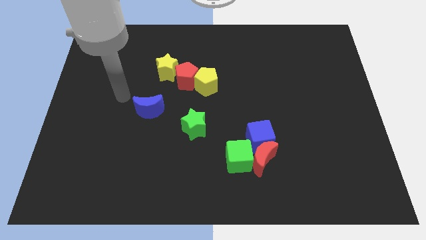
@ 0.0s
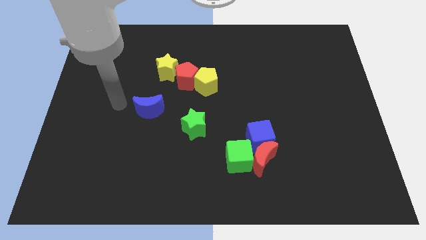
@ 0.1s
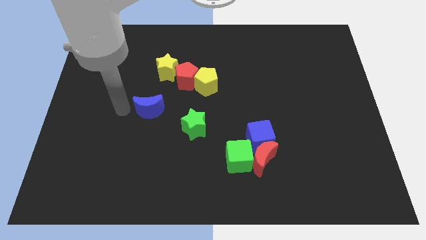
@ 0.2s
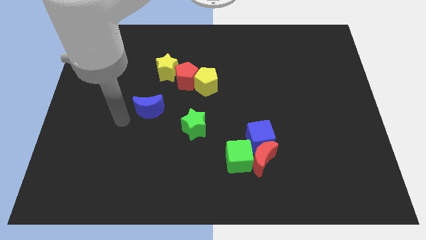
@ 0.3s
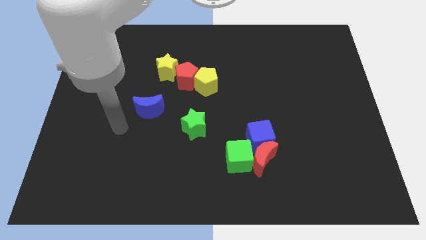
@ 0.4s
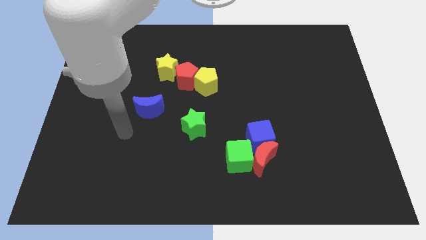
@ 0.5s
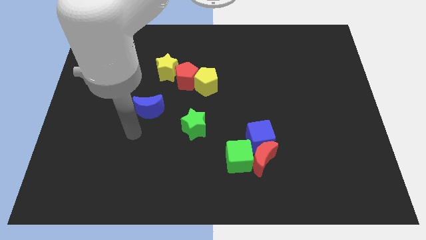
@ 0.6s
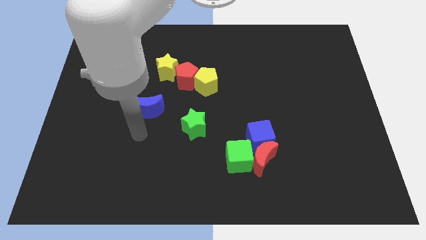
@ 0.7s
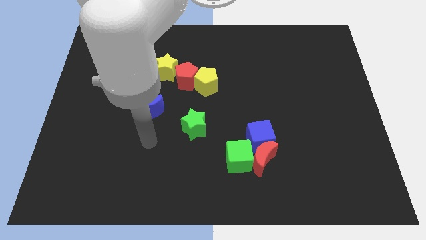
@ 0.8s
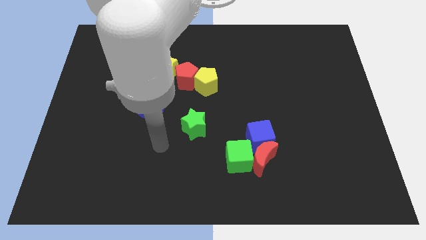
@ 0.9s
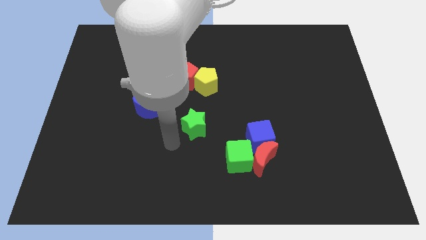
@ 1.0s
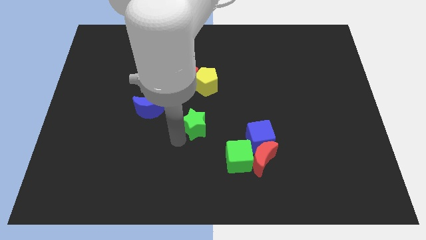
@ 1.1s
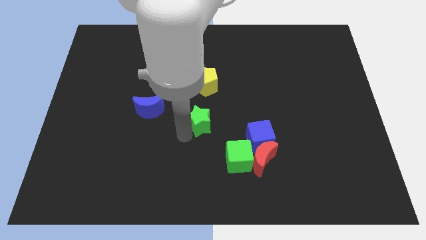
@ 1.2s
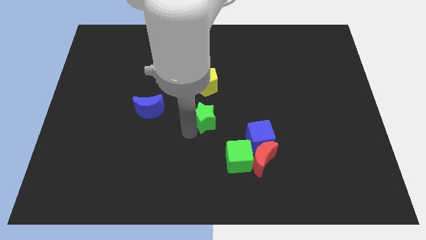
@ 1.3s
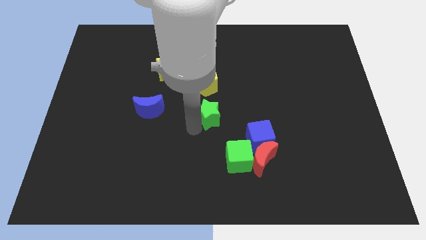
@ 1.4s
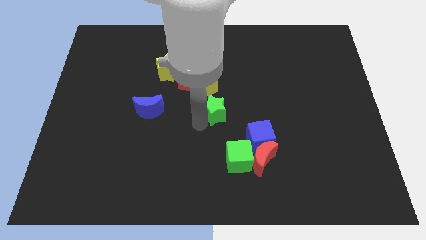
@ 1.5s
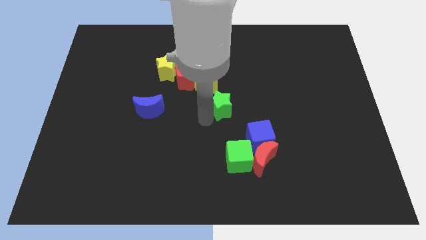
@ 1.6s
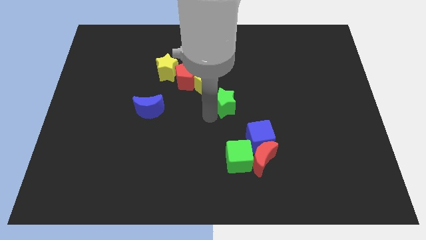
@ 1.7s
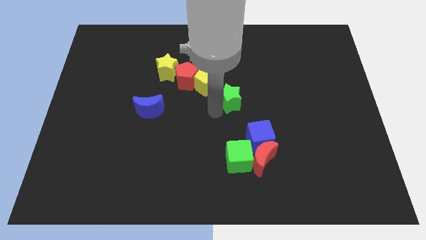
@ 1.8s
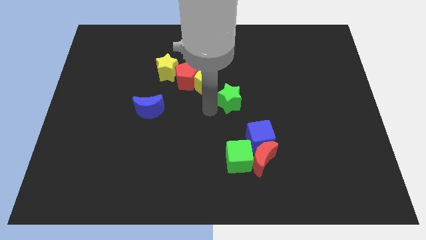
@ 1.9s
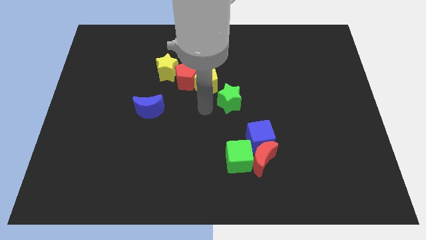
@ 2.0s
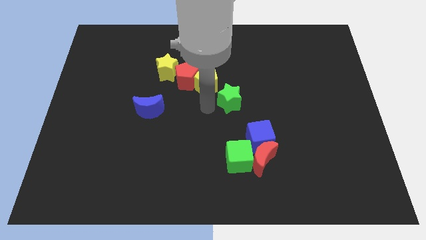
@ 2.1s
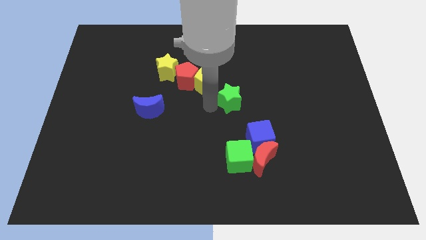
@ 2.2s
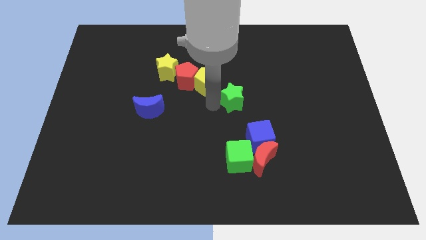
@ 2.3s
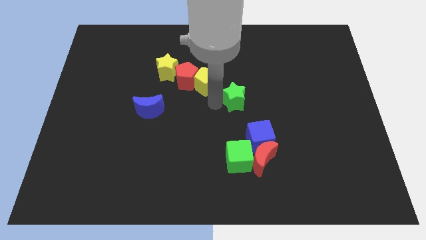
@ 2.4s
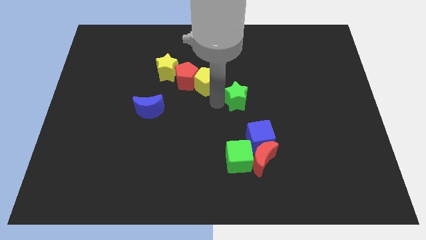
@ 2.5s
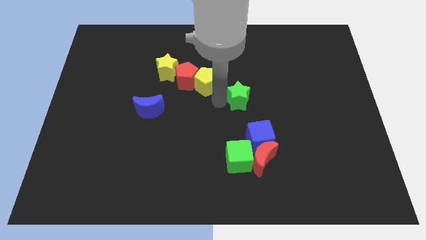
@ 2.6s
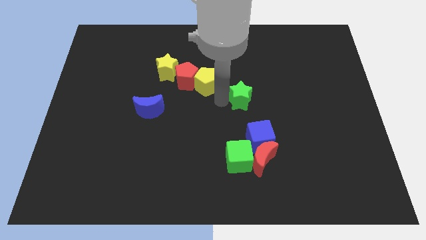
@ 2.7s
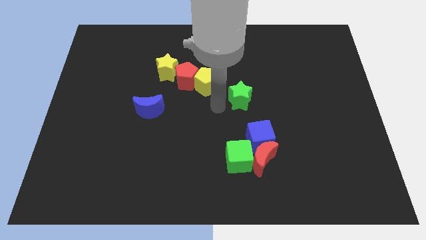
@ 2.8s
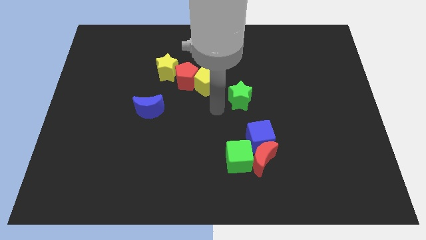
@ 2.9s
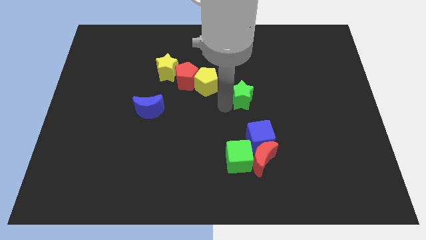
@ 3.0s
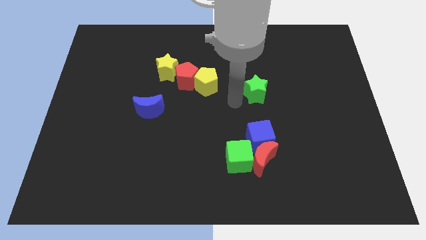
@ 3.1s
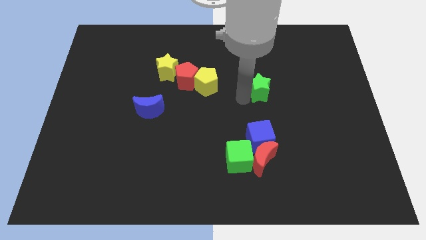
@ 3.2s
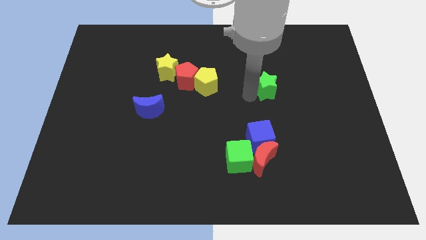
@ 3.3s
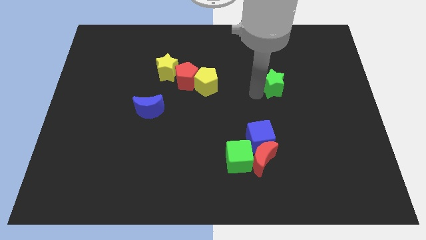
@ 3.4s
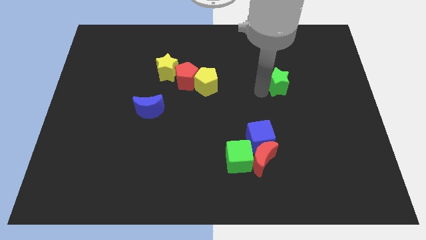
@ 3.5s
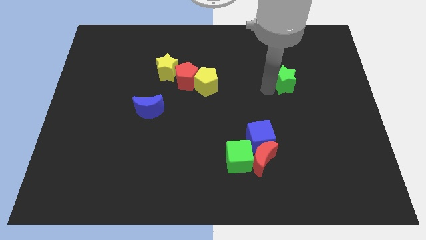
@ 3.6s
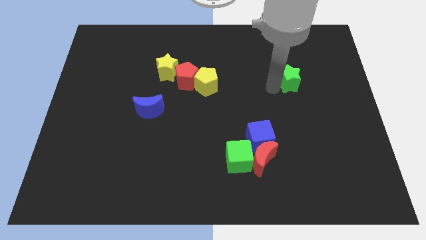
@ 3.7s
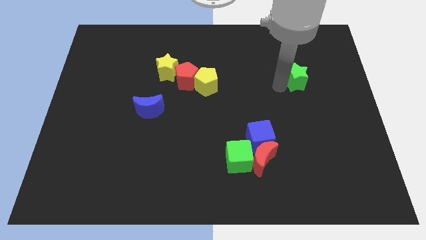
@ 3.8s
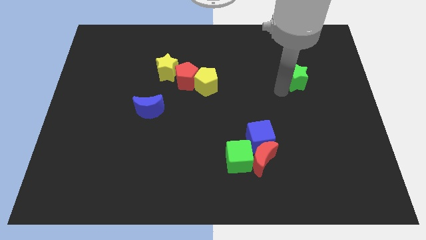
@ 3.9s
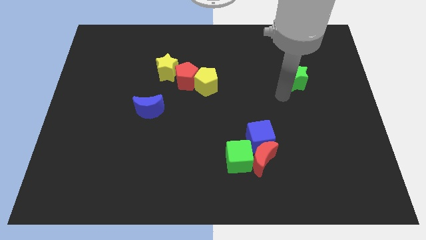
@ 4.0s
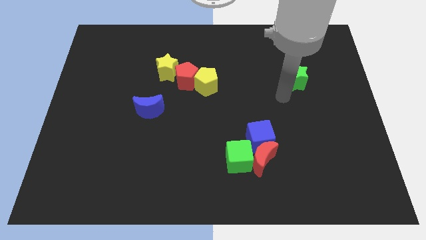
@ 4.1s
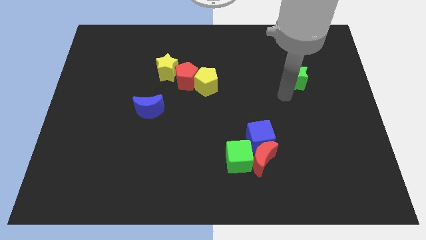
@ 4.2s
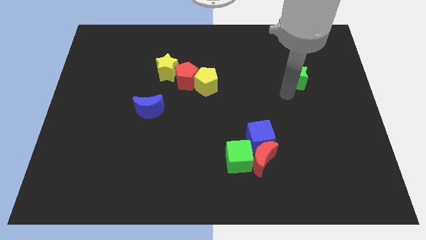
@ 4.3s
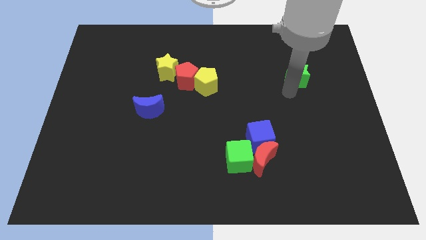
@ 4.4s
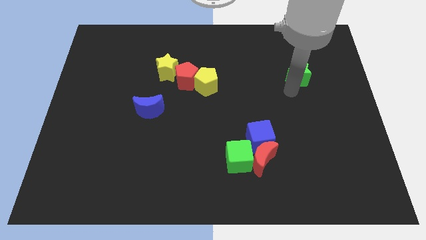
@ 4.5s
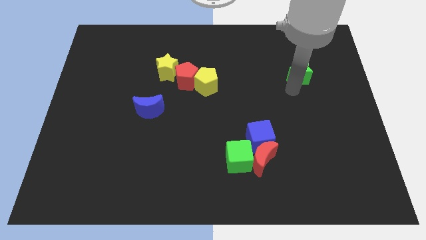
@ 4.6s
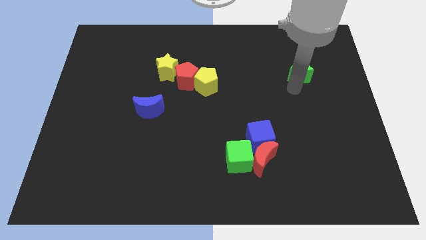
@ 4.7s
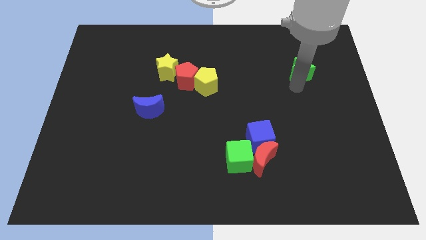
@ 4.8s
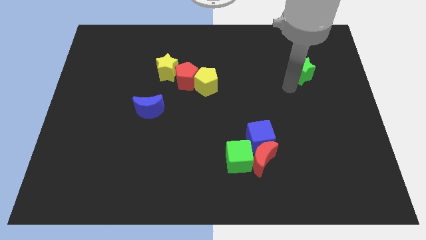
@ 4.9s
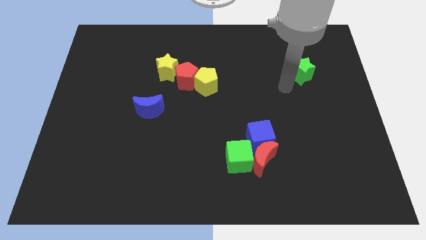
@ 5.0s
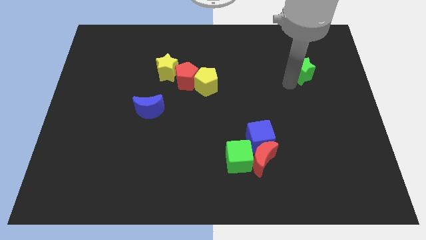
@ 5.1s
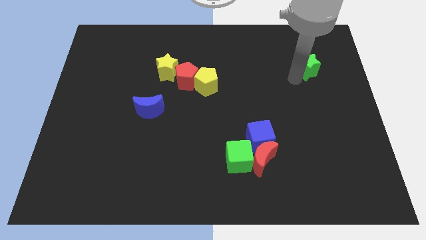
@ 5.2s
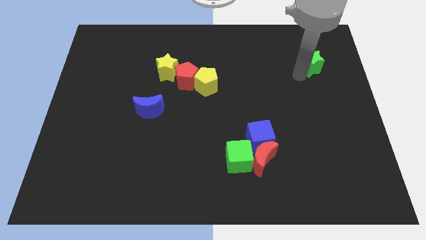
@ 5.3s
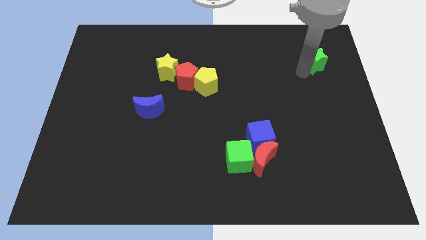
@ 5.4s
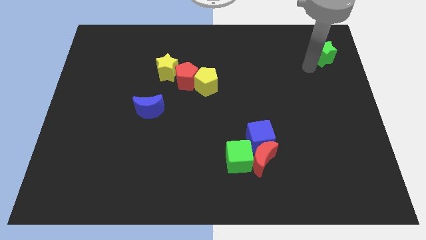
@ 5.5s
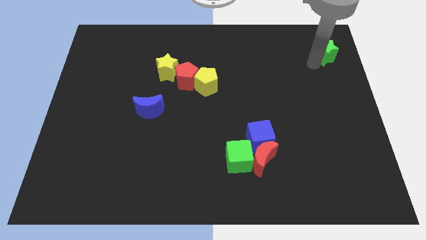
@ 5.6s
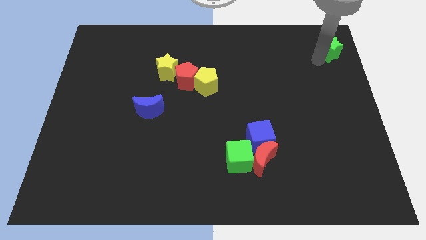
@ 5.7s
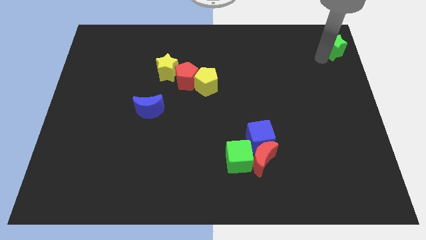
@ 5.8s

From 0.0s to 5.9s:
put the green star to the top right of the board
